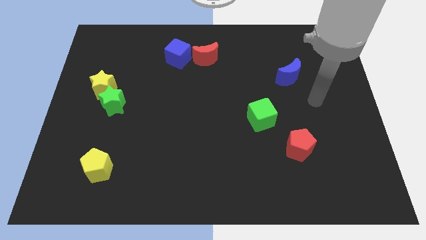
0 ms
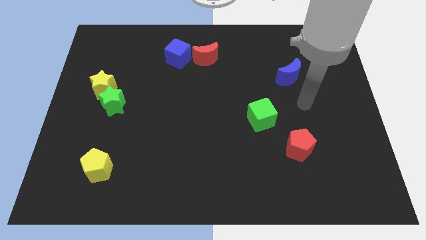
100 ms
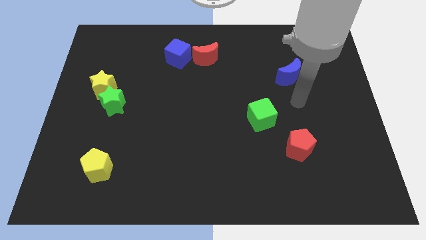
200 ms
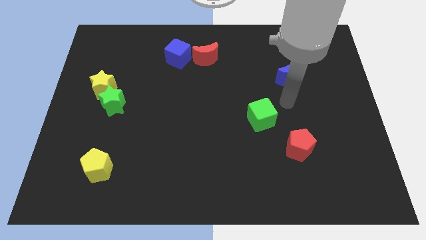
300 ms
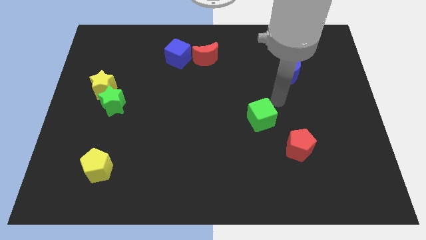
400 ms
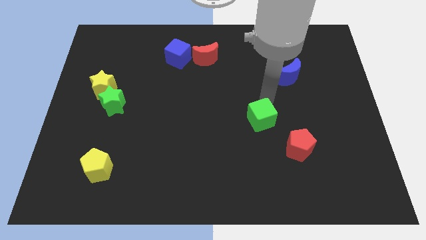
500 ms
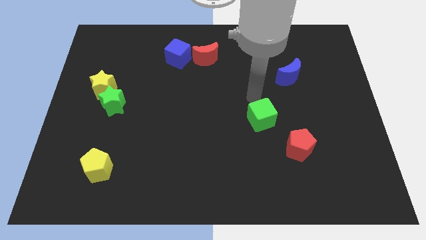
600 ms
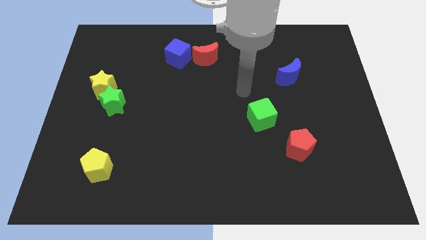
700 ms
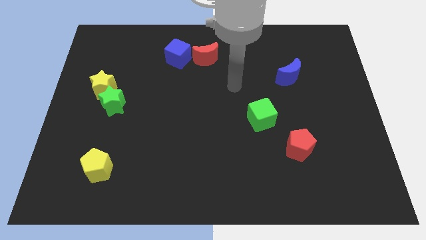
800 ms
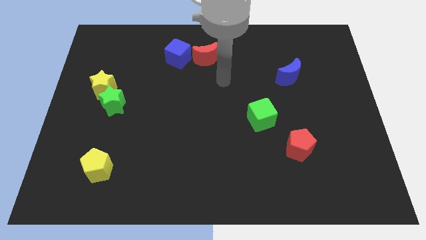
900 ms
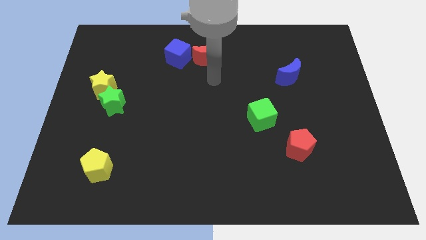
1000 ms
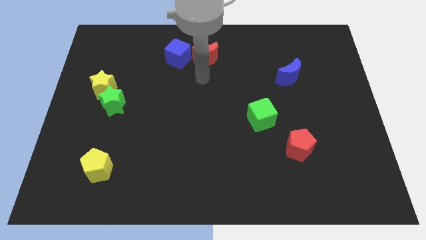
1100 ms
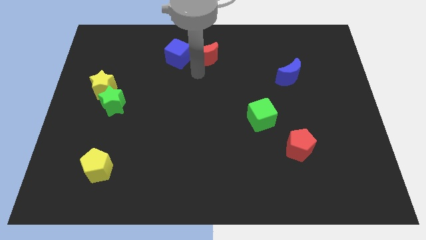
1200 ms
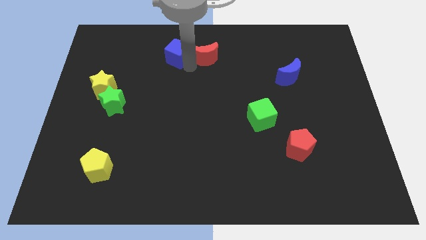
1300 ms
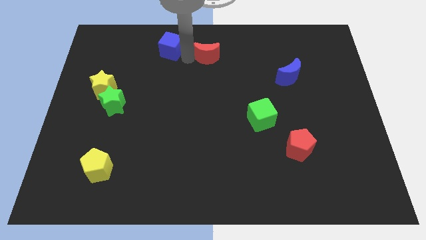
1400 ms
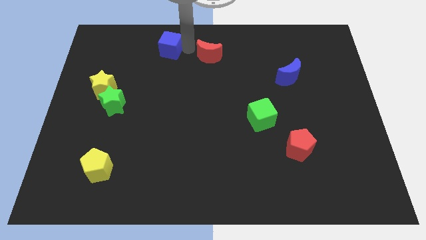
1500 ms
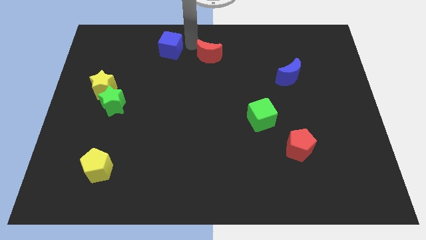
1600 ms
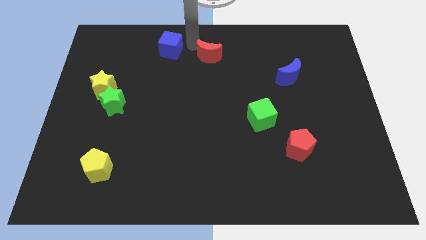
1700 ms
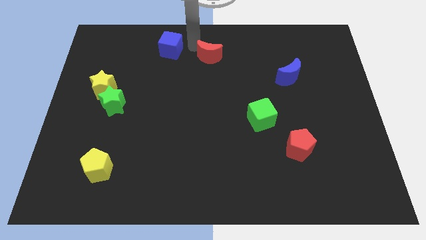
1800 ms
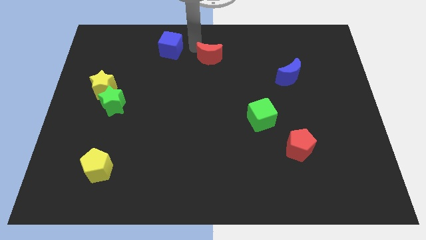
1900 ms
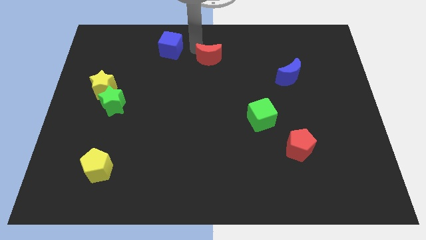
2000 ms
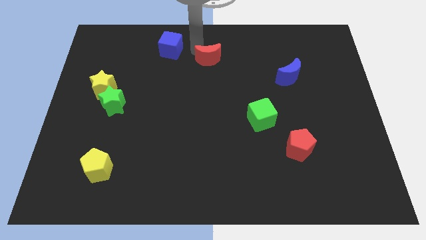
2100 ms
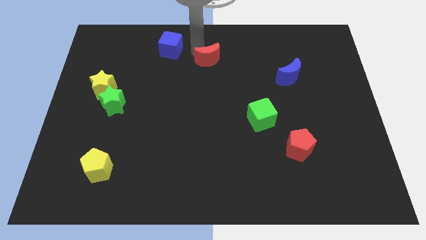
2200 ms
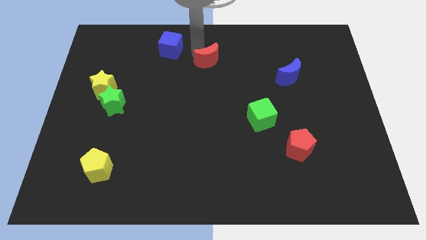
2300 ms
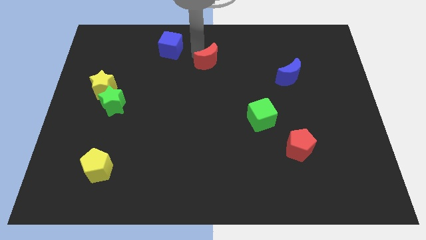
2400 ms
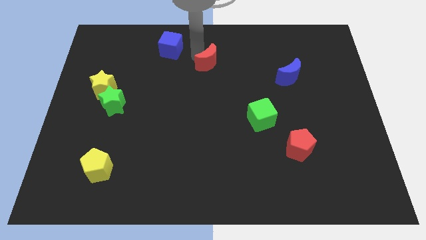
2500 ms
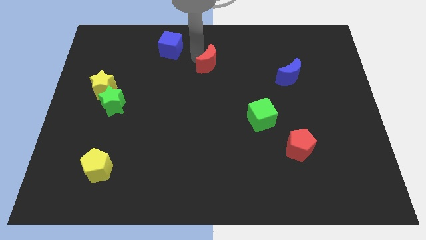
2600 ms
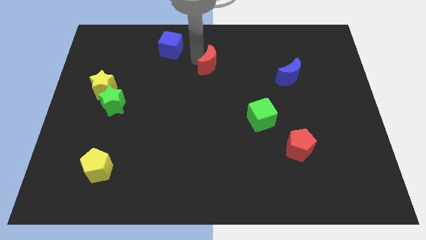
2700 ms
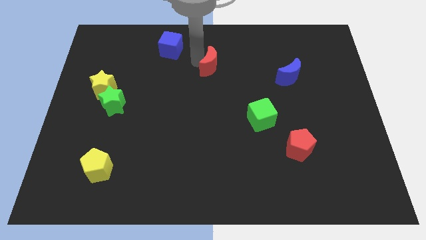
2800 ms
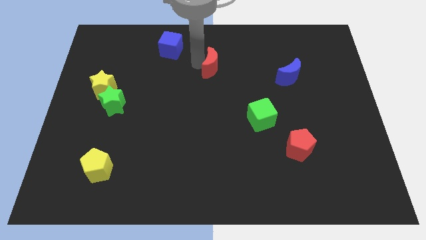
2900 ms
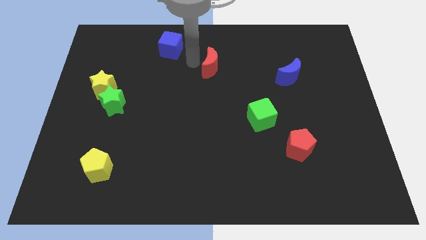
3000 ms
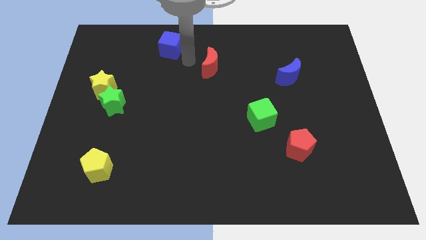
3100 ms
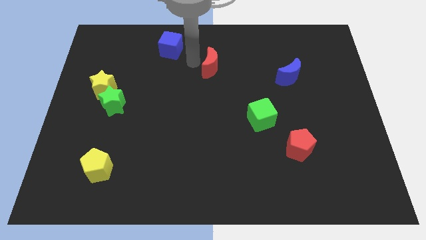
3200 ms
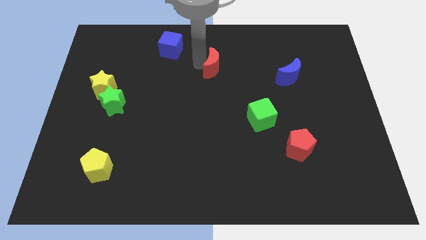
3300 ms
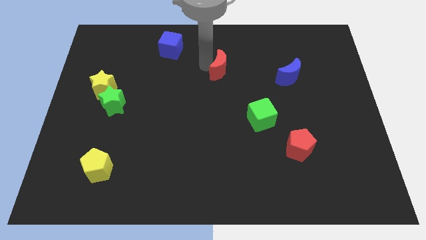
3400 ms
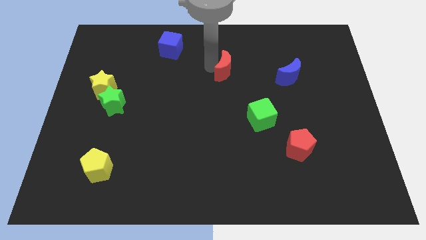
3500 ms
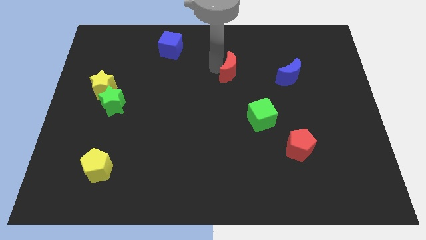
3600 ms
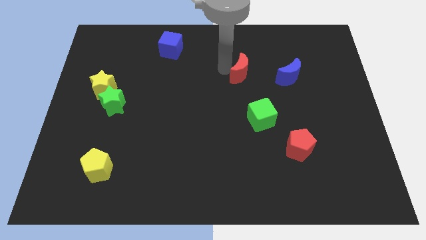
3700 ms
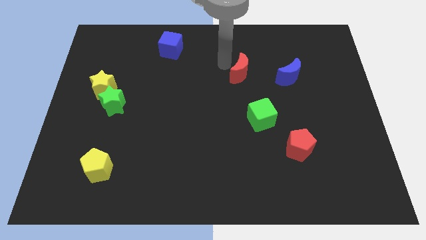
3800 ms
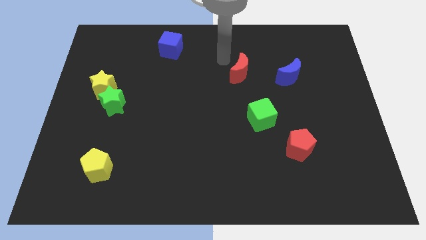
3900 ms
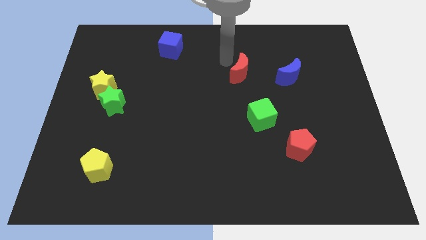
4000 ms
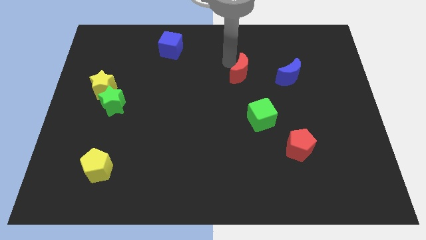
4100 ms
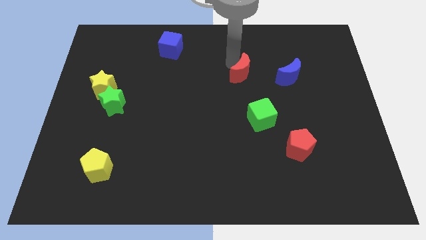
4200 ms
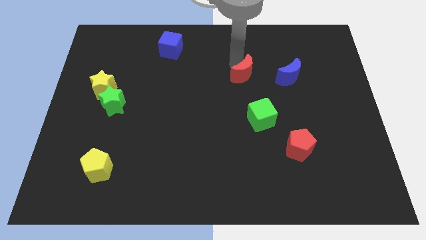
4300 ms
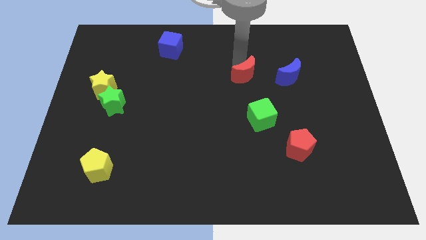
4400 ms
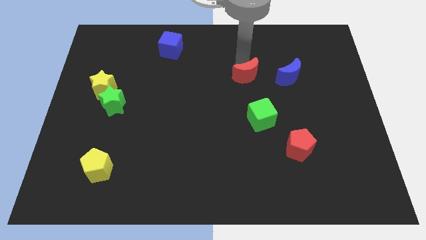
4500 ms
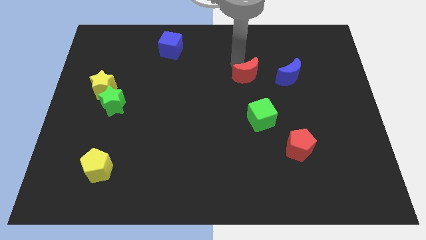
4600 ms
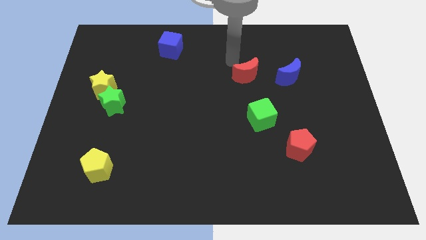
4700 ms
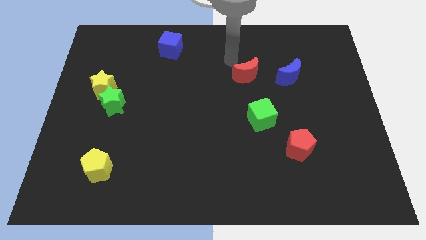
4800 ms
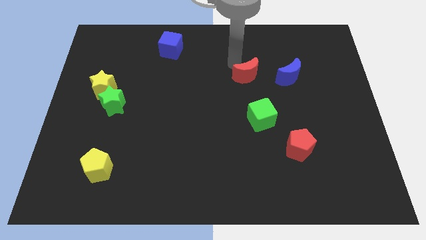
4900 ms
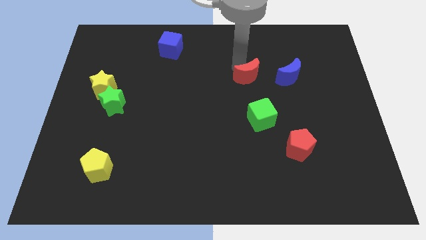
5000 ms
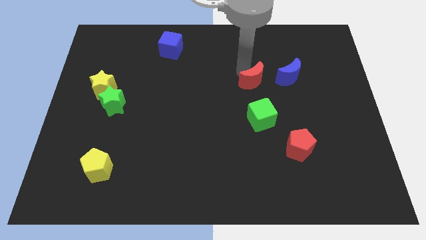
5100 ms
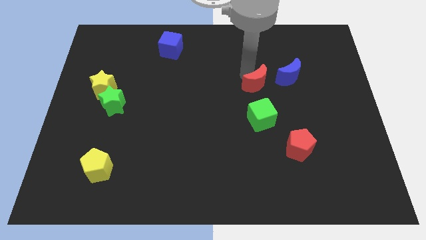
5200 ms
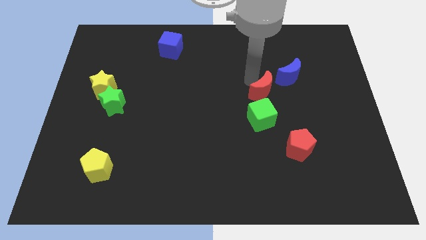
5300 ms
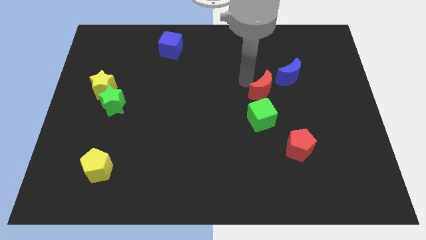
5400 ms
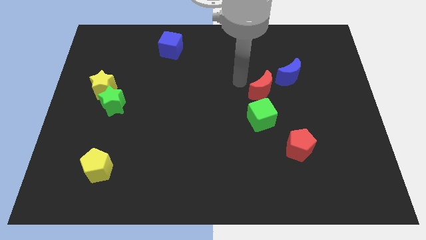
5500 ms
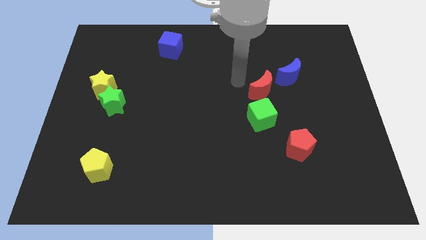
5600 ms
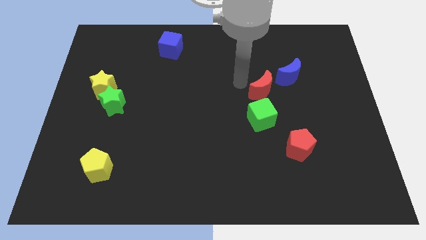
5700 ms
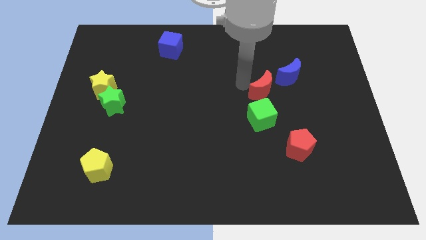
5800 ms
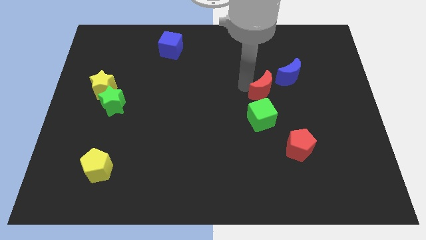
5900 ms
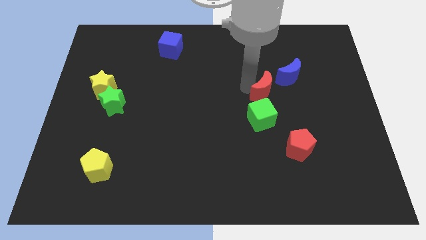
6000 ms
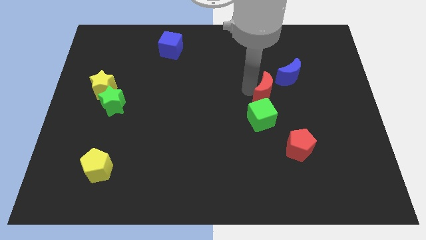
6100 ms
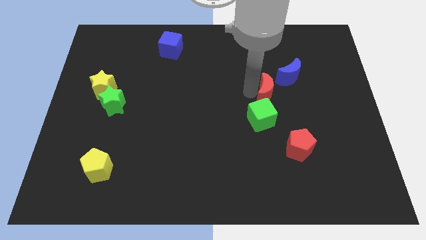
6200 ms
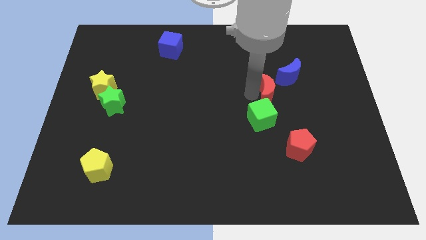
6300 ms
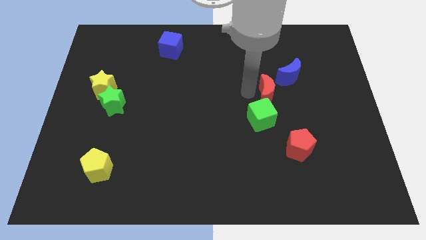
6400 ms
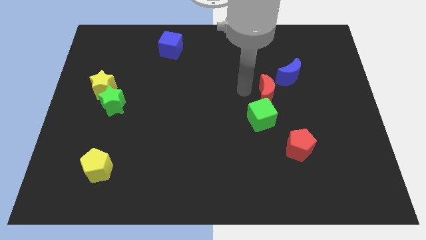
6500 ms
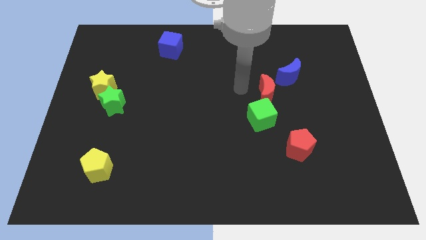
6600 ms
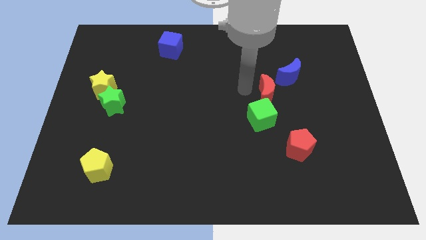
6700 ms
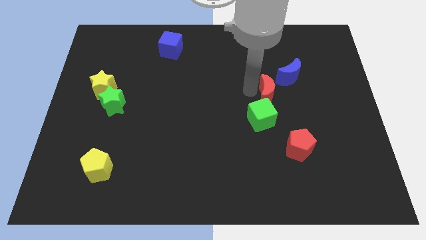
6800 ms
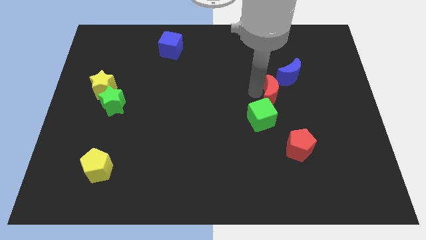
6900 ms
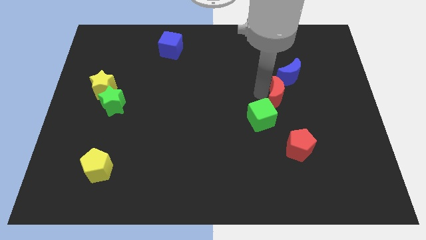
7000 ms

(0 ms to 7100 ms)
move the red moon below the blue moon
